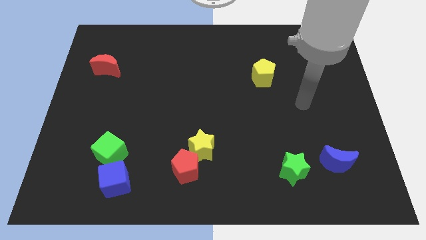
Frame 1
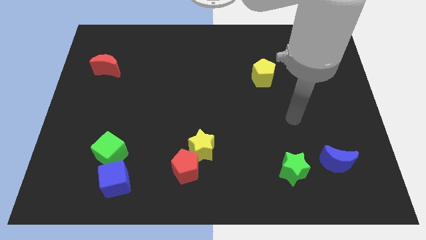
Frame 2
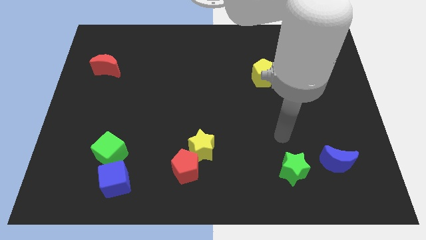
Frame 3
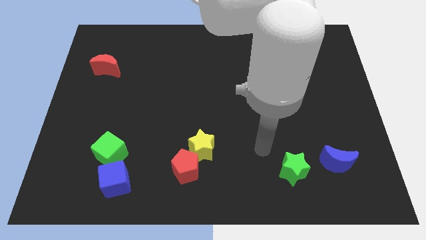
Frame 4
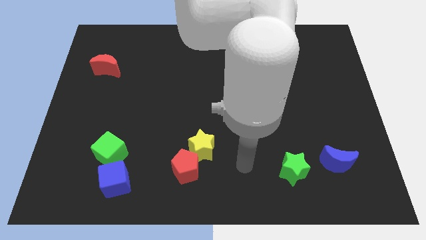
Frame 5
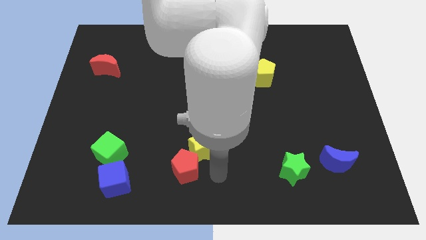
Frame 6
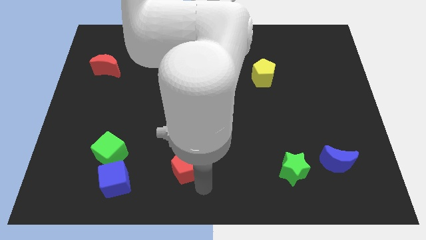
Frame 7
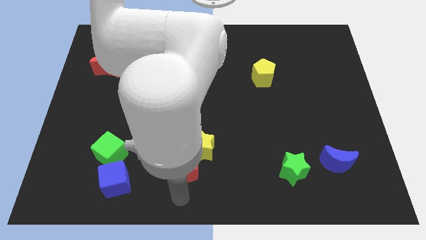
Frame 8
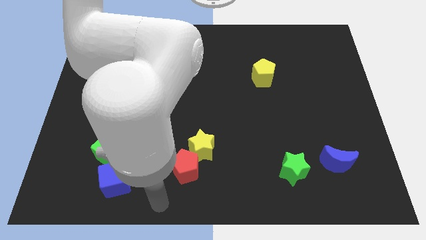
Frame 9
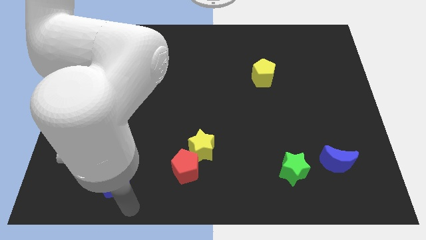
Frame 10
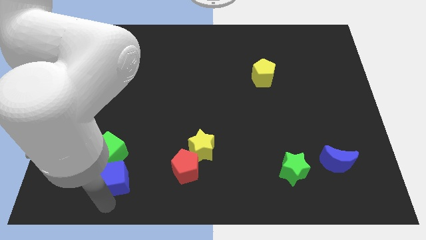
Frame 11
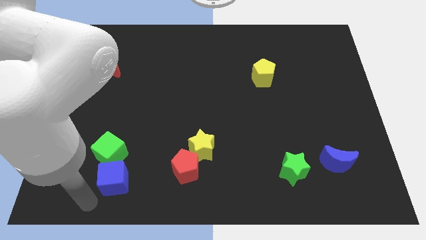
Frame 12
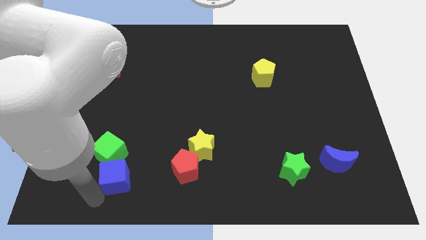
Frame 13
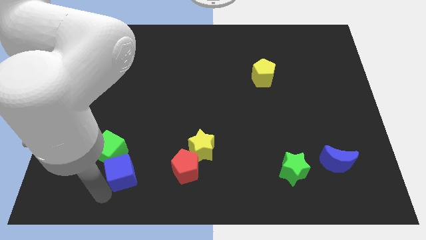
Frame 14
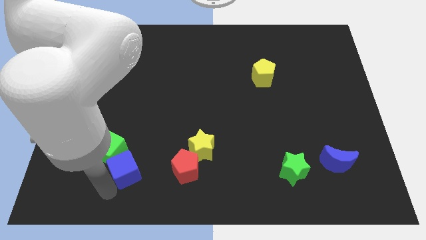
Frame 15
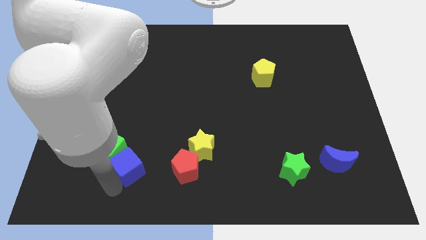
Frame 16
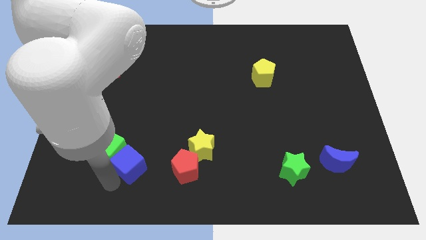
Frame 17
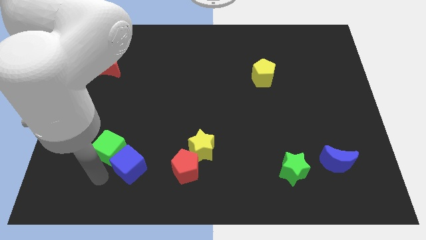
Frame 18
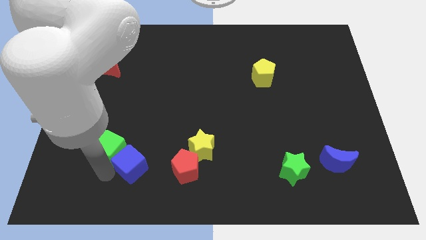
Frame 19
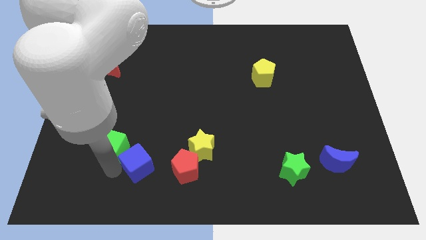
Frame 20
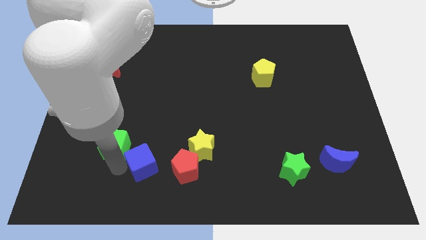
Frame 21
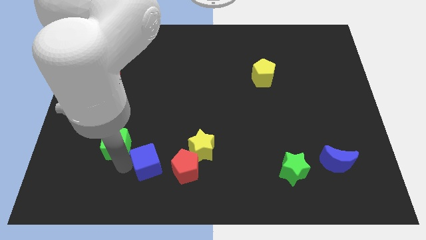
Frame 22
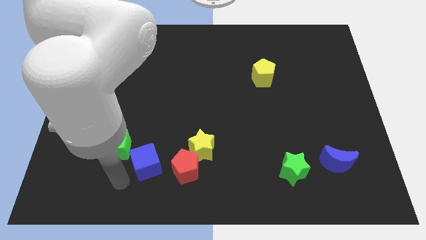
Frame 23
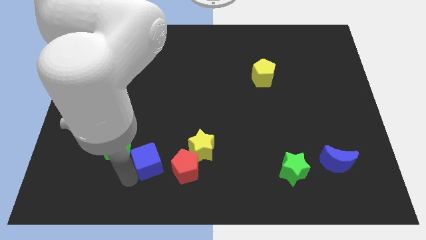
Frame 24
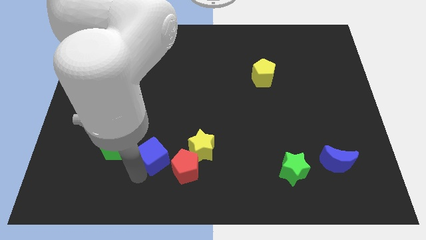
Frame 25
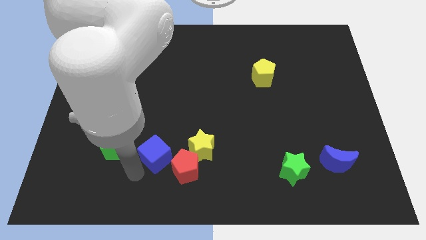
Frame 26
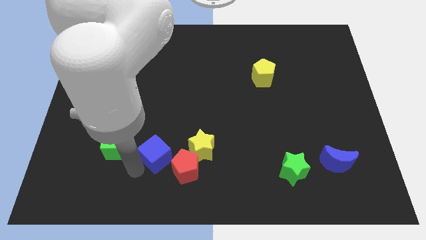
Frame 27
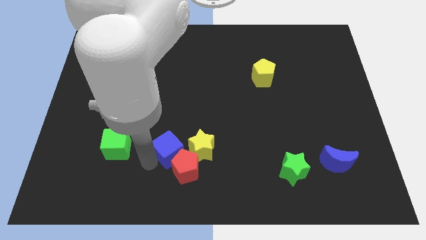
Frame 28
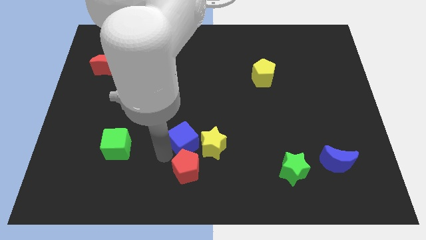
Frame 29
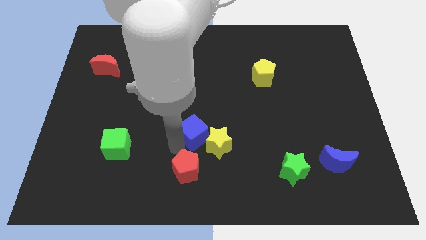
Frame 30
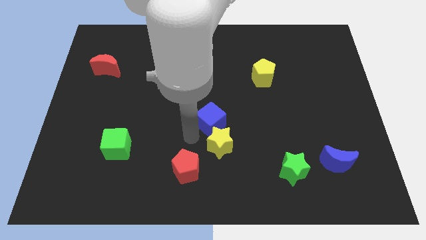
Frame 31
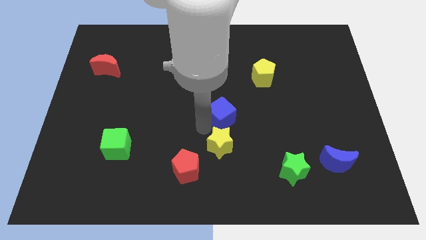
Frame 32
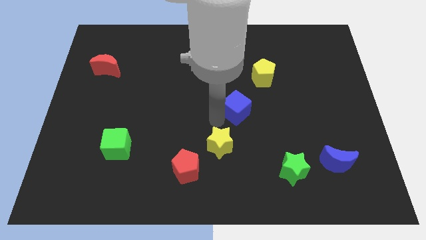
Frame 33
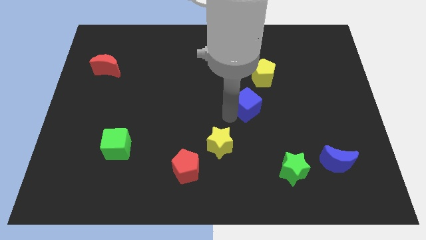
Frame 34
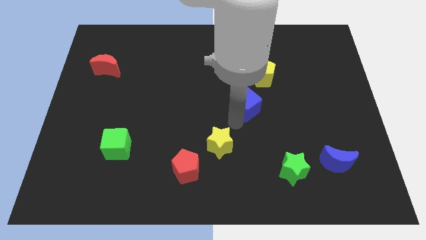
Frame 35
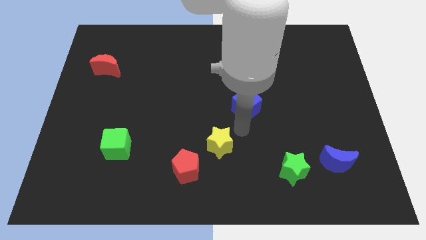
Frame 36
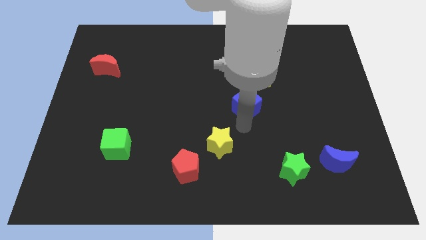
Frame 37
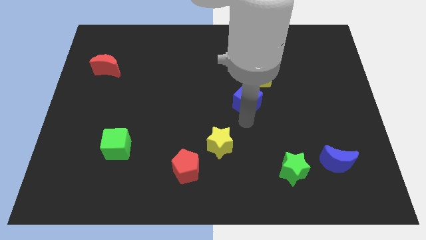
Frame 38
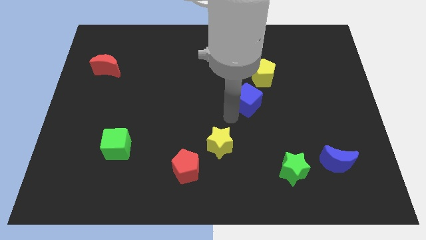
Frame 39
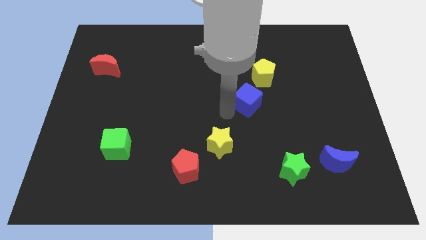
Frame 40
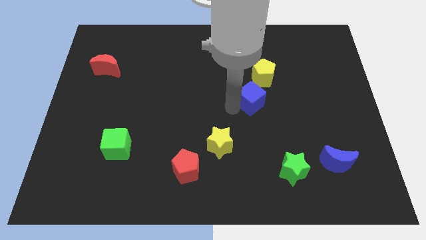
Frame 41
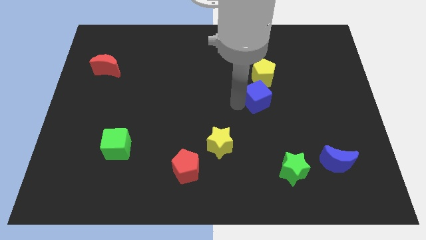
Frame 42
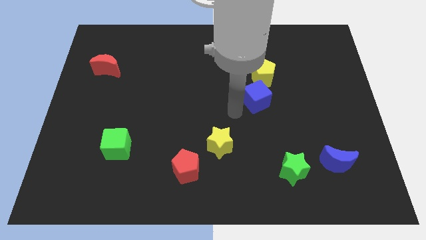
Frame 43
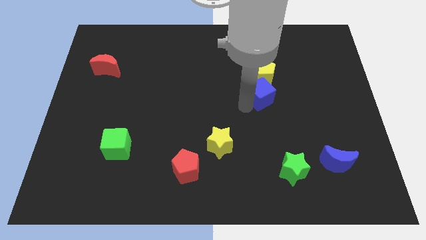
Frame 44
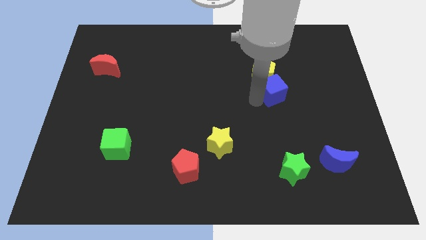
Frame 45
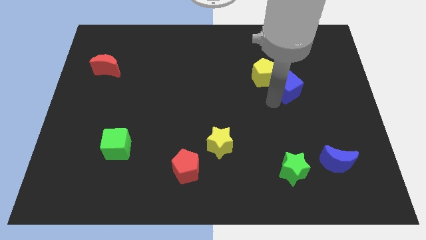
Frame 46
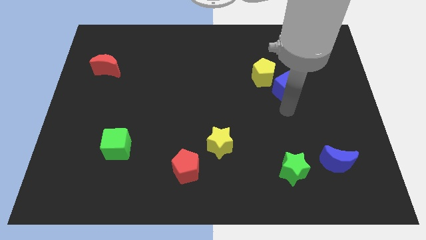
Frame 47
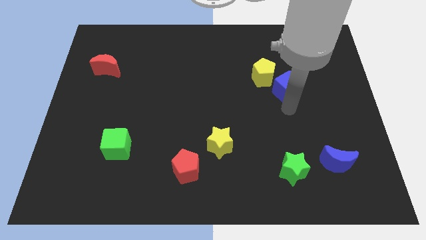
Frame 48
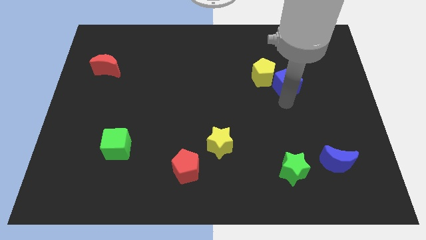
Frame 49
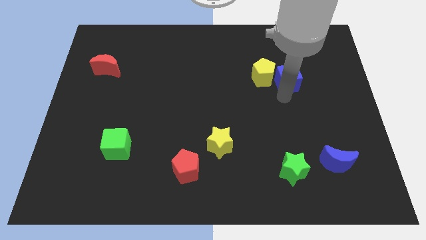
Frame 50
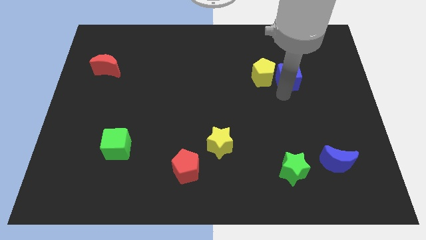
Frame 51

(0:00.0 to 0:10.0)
put the blue cube diagonally up and to the right of the yellow pentagon

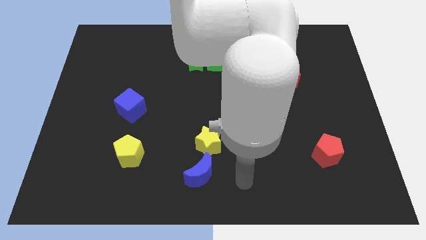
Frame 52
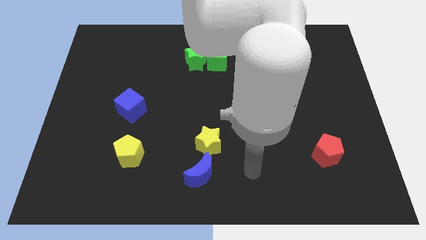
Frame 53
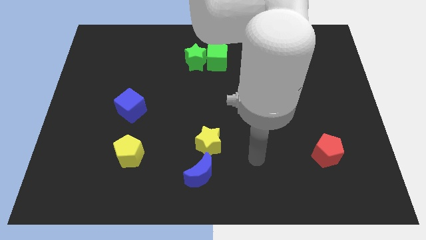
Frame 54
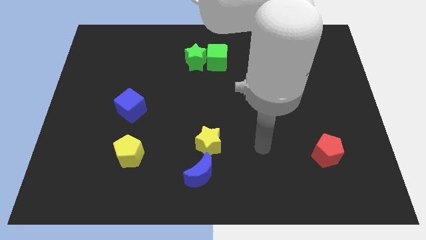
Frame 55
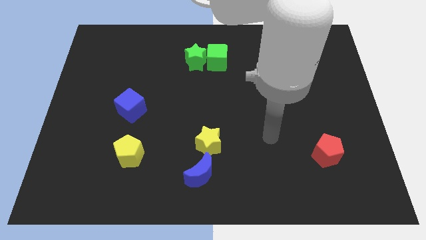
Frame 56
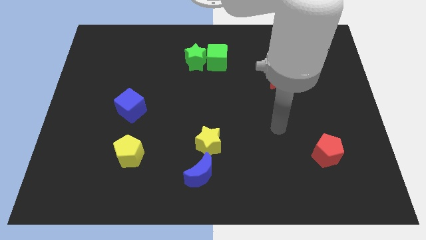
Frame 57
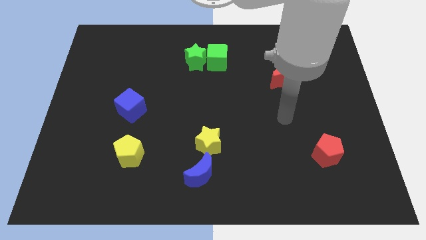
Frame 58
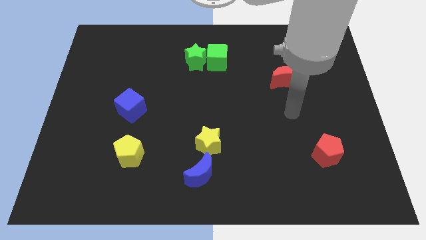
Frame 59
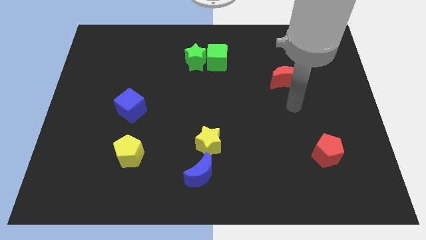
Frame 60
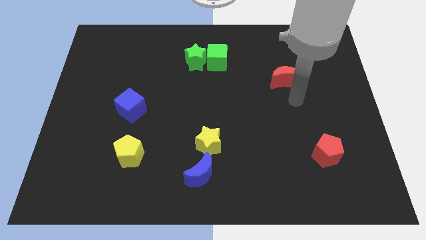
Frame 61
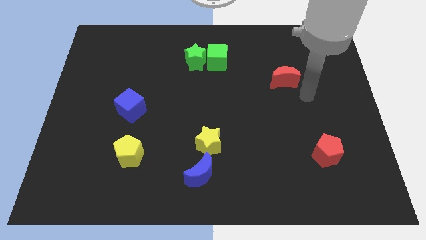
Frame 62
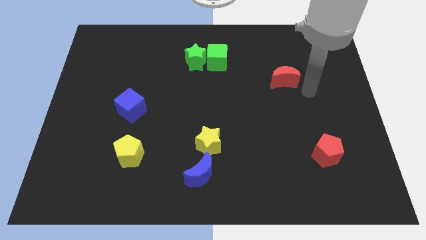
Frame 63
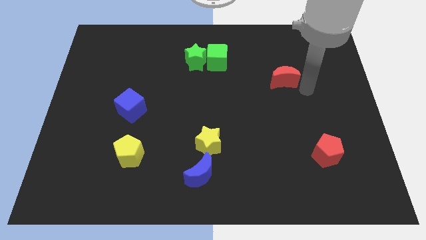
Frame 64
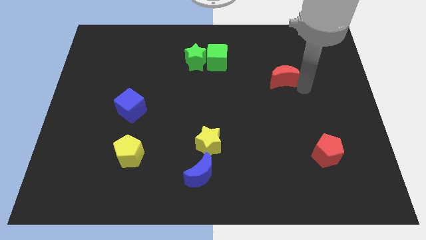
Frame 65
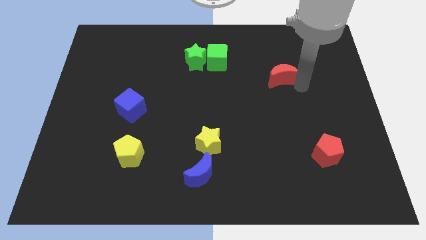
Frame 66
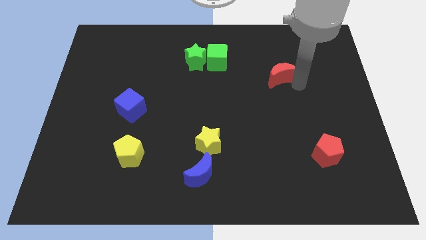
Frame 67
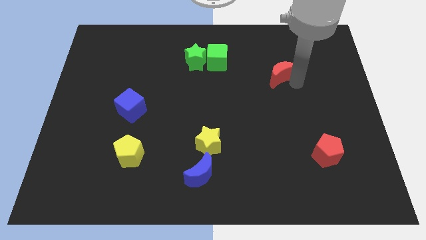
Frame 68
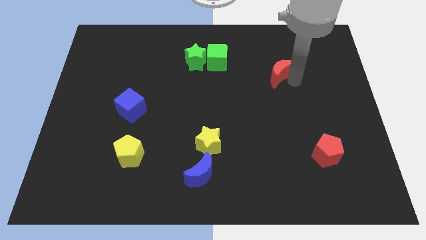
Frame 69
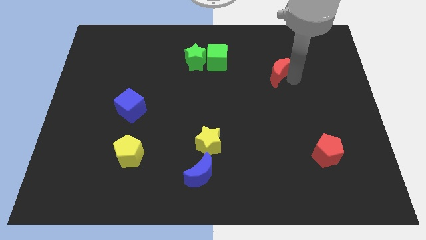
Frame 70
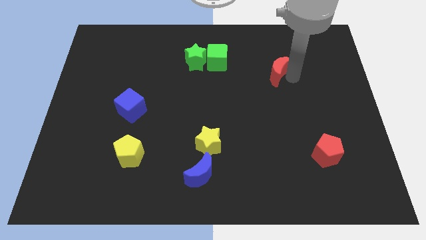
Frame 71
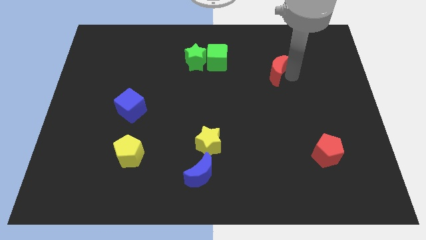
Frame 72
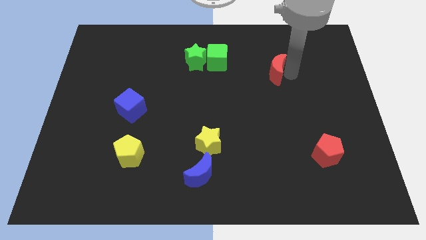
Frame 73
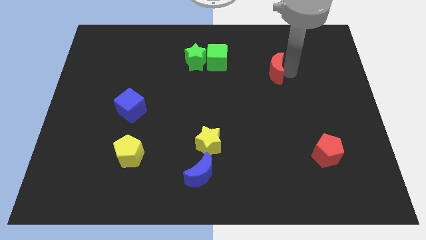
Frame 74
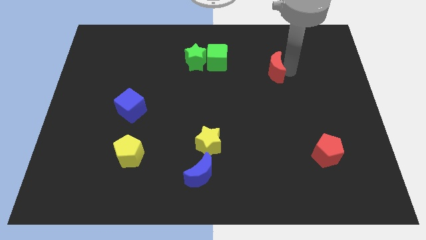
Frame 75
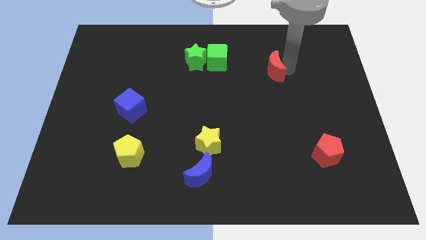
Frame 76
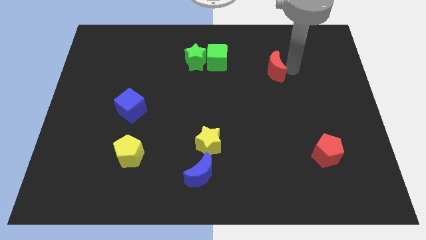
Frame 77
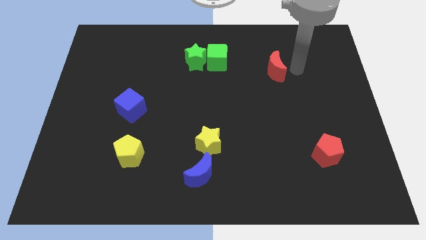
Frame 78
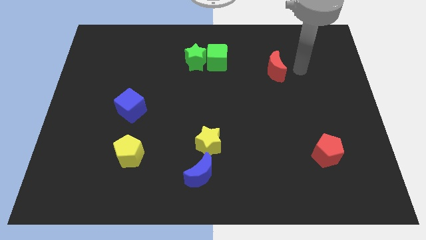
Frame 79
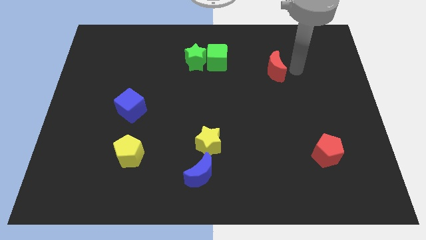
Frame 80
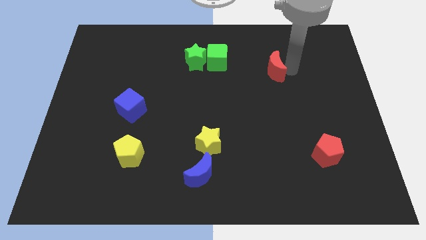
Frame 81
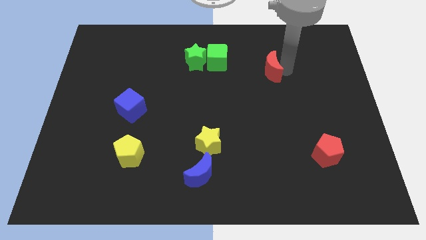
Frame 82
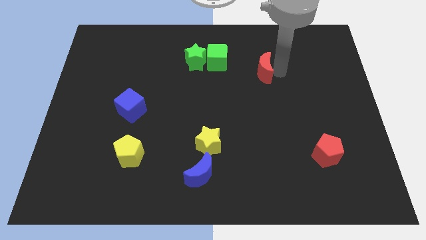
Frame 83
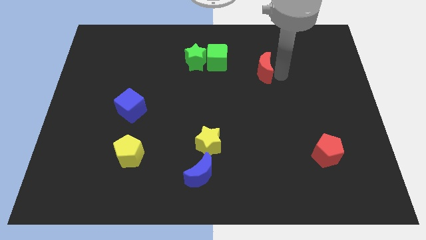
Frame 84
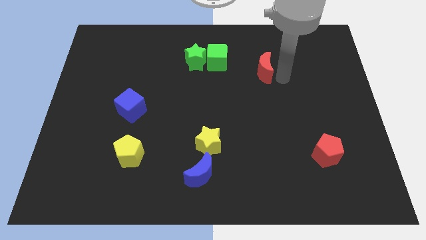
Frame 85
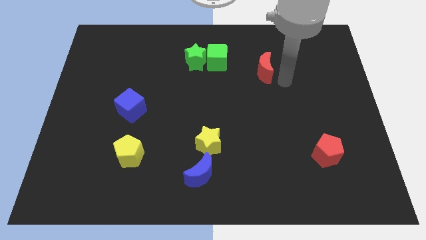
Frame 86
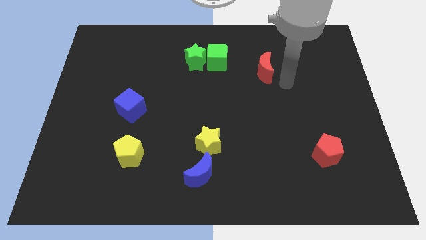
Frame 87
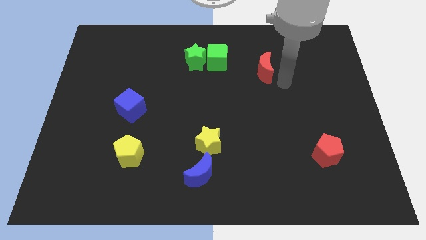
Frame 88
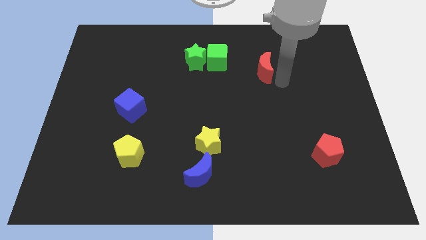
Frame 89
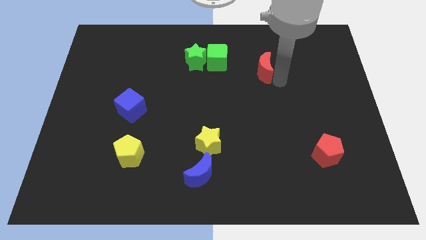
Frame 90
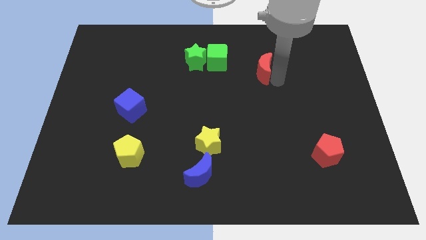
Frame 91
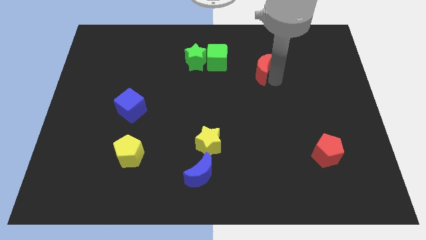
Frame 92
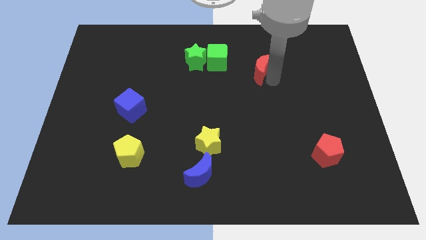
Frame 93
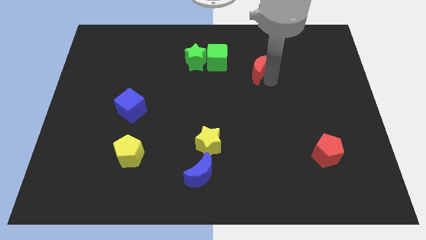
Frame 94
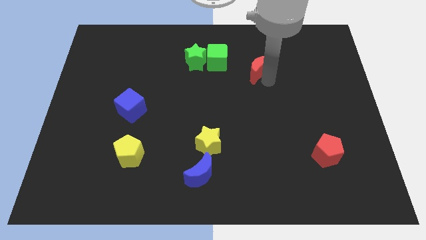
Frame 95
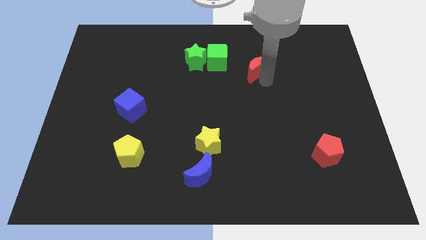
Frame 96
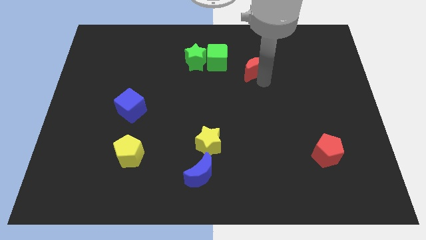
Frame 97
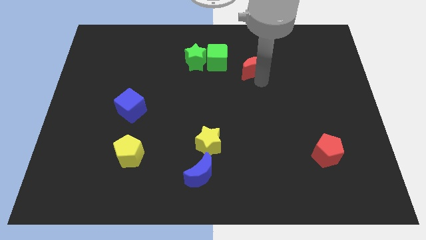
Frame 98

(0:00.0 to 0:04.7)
put the red moon to the right side of the green star
